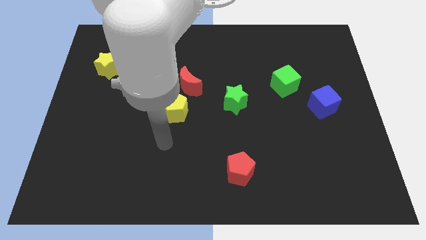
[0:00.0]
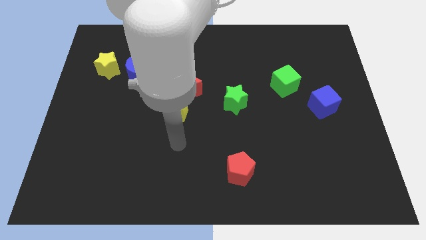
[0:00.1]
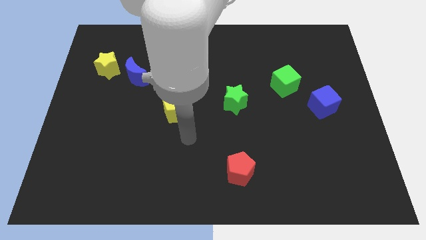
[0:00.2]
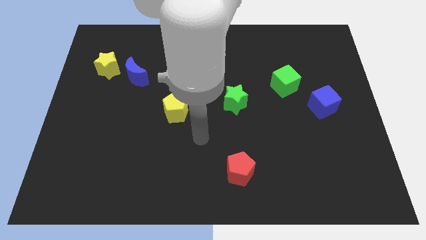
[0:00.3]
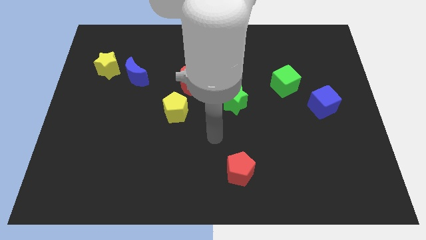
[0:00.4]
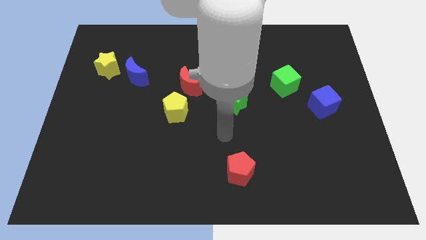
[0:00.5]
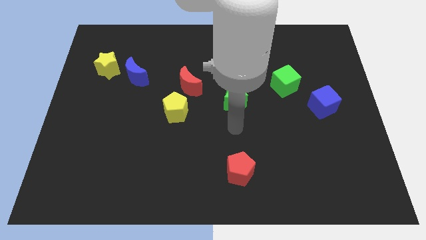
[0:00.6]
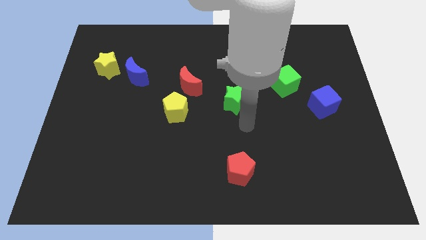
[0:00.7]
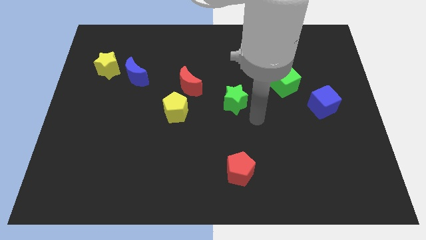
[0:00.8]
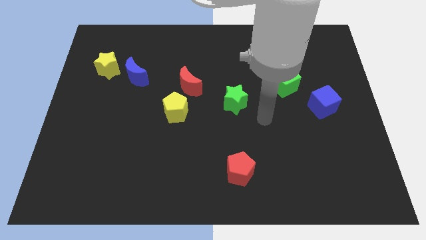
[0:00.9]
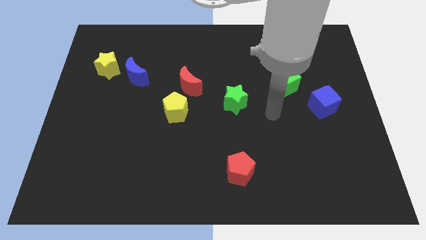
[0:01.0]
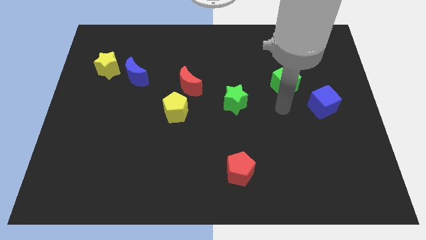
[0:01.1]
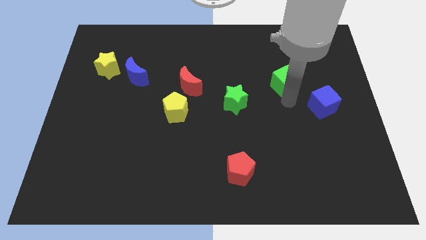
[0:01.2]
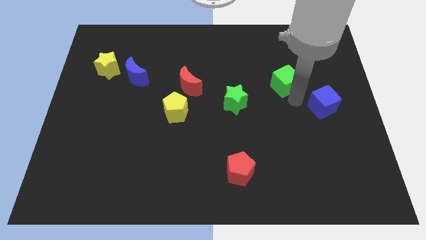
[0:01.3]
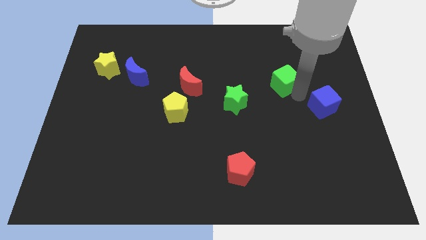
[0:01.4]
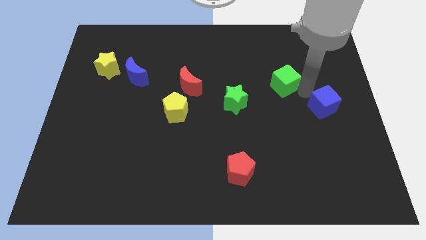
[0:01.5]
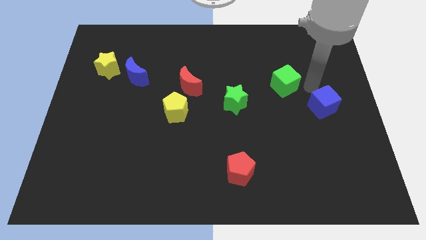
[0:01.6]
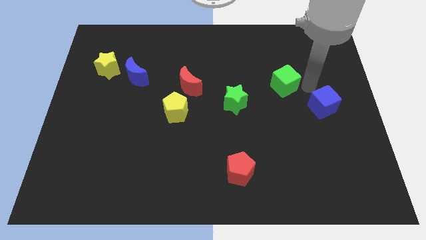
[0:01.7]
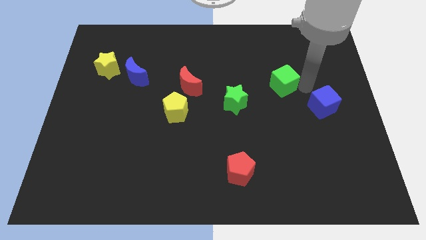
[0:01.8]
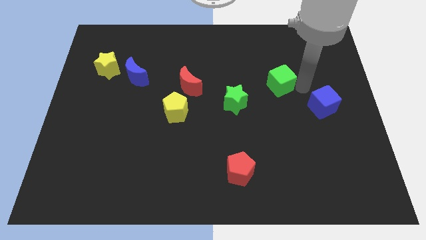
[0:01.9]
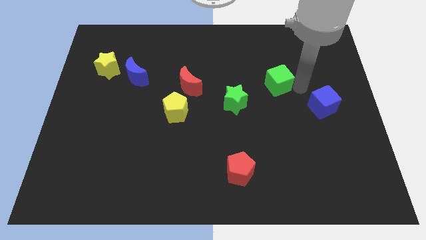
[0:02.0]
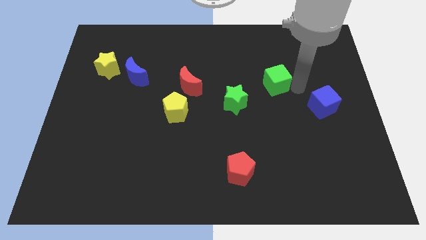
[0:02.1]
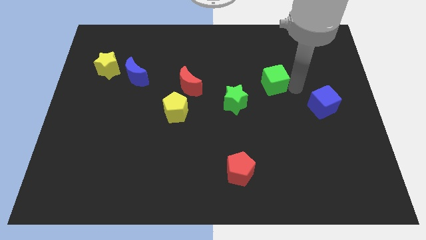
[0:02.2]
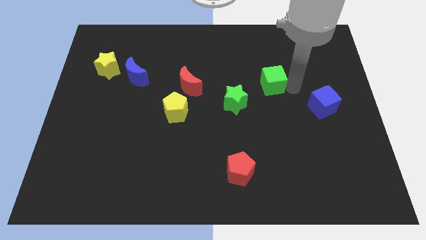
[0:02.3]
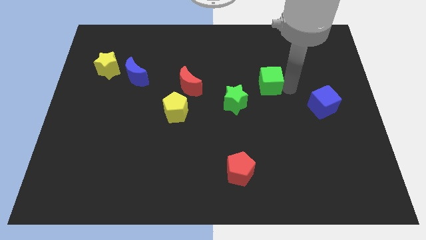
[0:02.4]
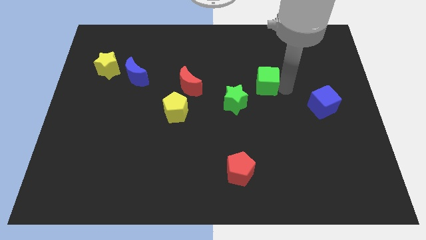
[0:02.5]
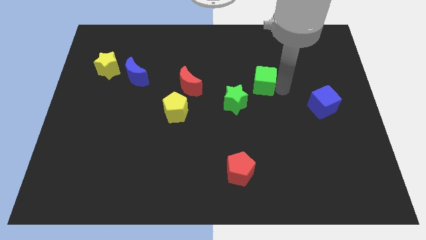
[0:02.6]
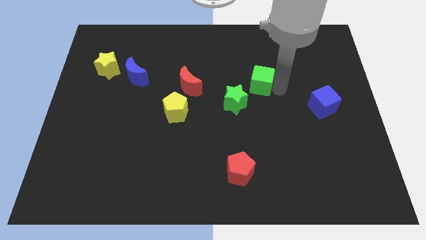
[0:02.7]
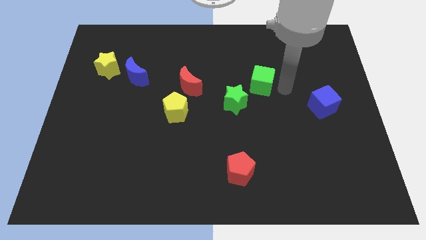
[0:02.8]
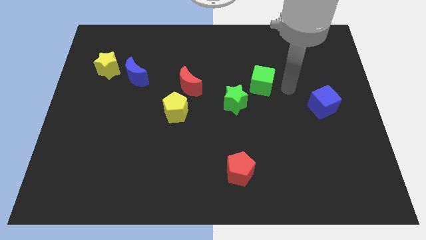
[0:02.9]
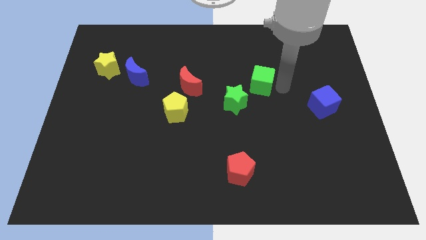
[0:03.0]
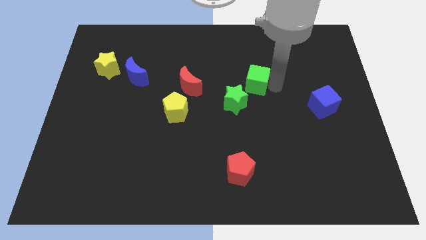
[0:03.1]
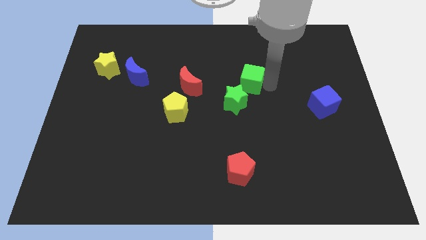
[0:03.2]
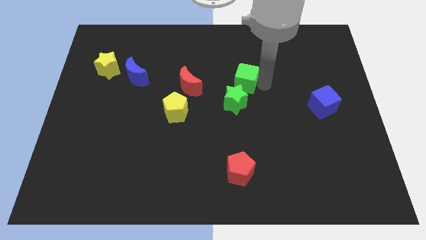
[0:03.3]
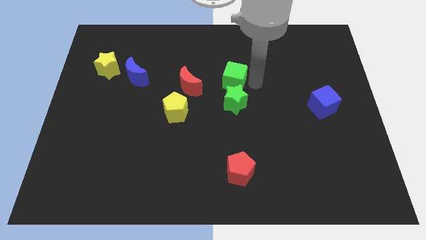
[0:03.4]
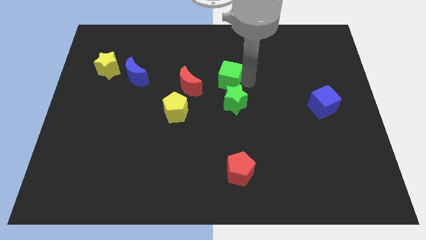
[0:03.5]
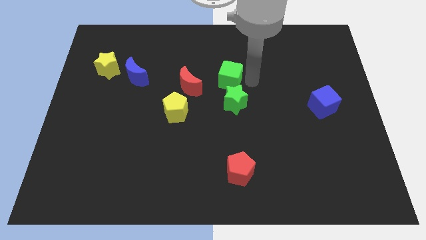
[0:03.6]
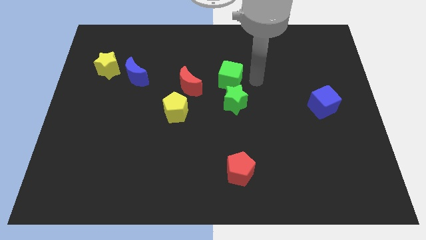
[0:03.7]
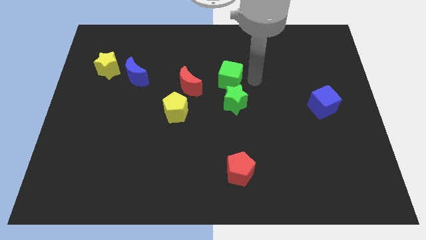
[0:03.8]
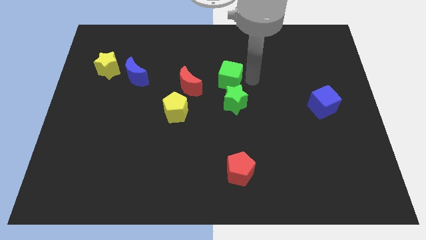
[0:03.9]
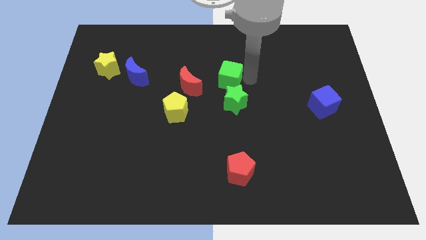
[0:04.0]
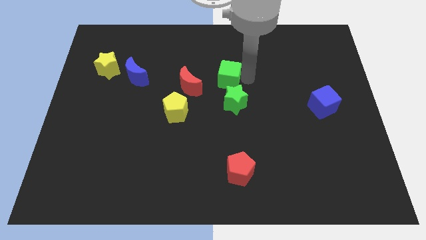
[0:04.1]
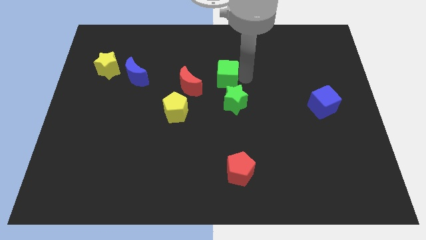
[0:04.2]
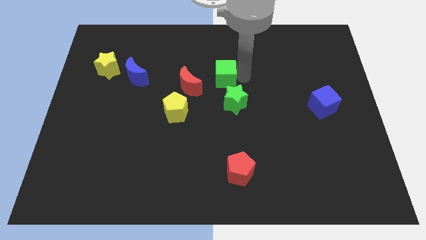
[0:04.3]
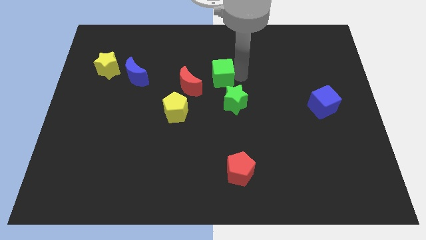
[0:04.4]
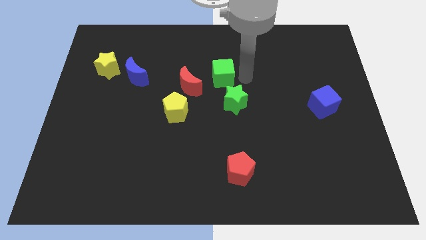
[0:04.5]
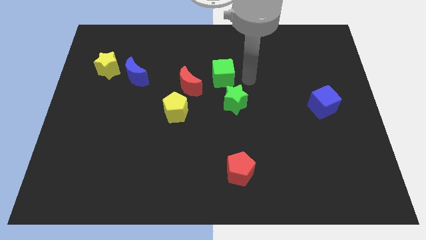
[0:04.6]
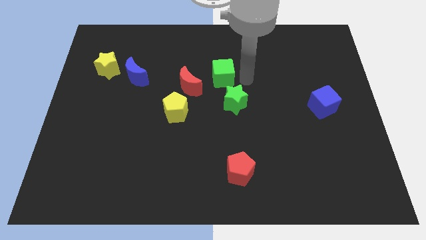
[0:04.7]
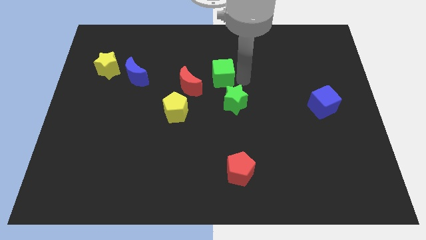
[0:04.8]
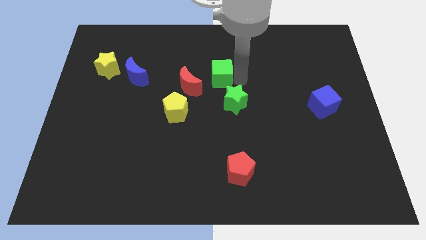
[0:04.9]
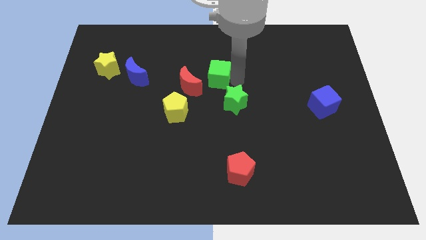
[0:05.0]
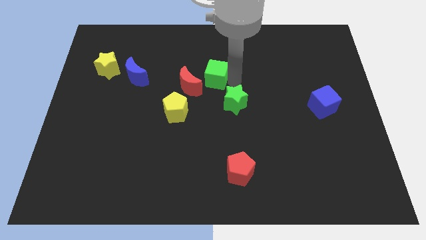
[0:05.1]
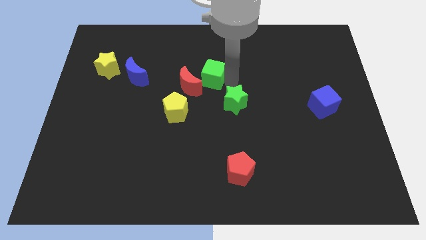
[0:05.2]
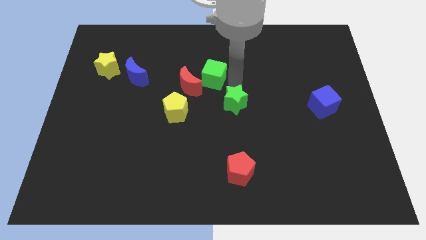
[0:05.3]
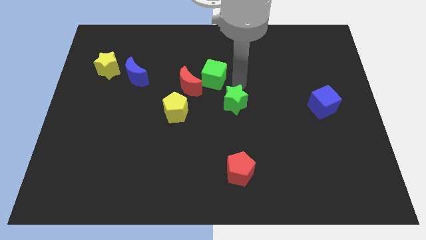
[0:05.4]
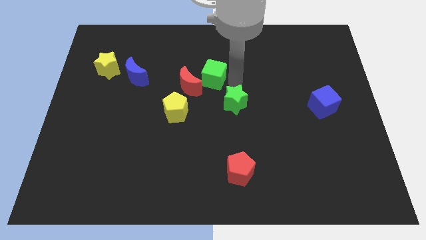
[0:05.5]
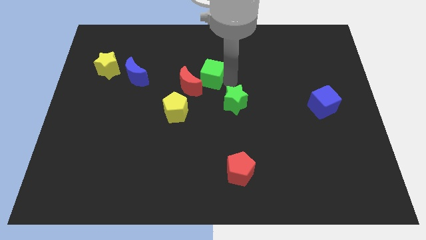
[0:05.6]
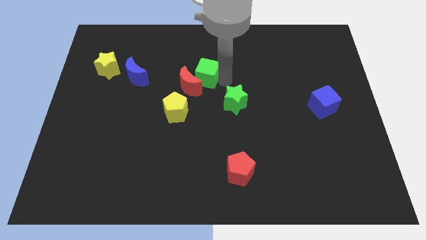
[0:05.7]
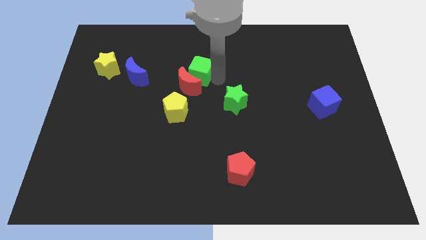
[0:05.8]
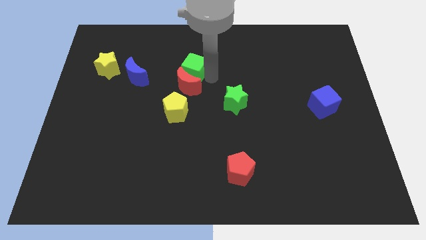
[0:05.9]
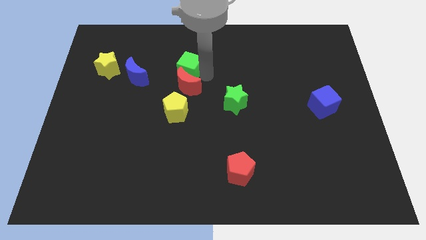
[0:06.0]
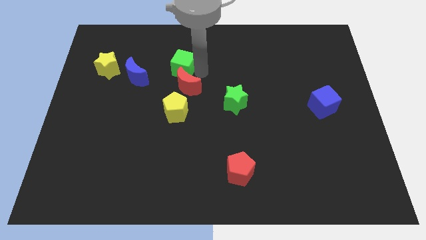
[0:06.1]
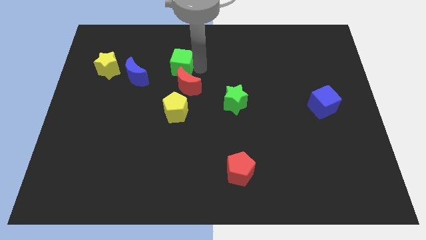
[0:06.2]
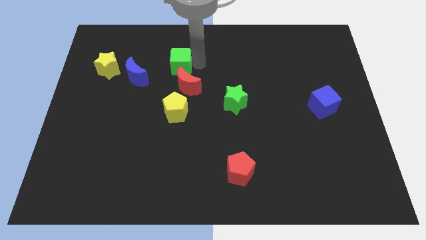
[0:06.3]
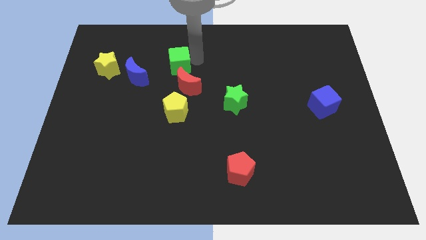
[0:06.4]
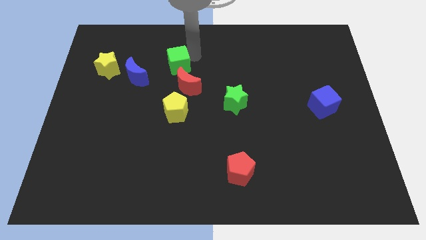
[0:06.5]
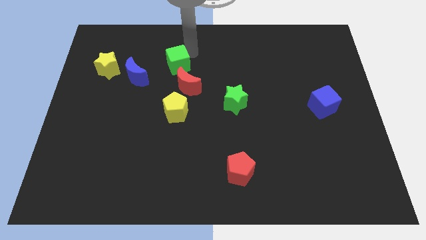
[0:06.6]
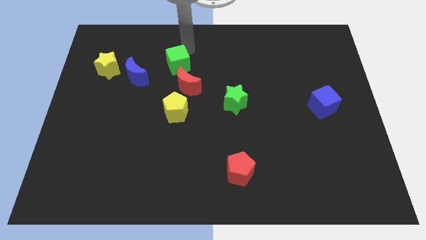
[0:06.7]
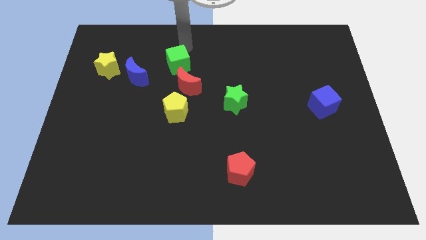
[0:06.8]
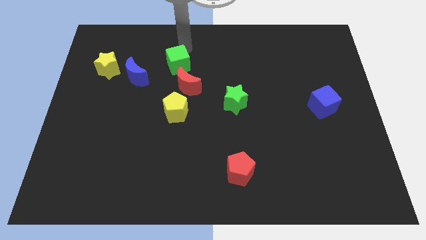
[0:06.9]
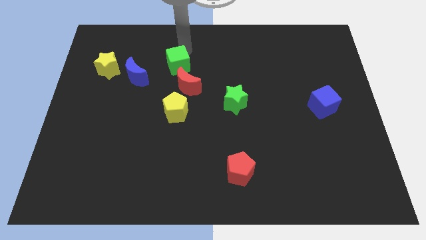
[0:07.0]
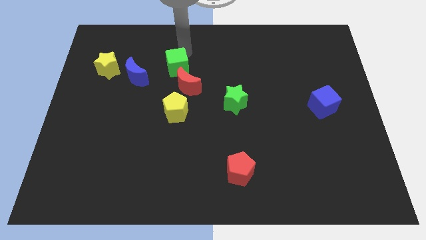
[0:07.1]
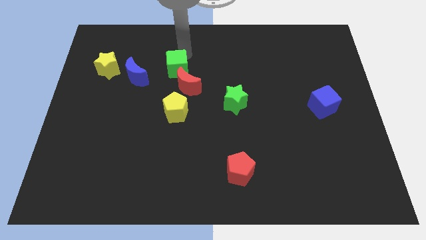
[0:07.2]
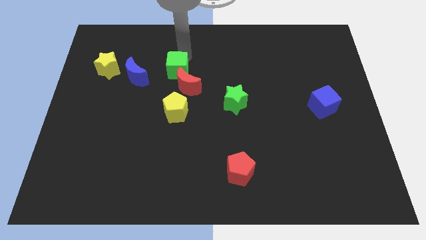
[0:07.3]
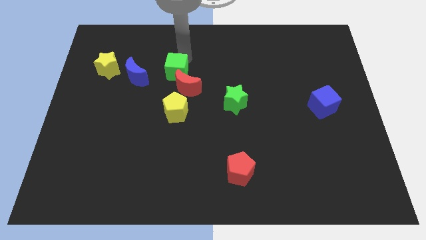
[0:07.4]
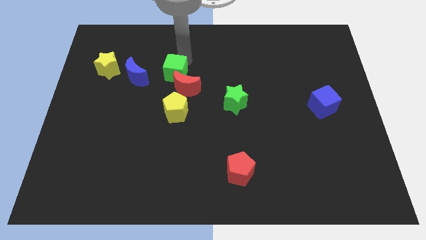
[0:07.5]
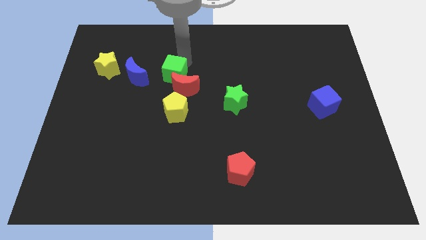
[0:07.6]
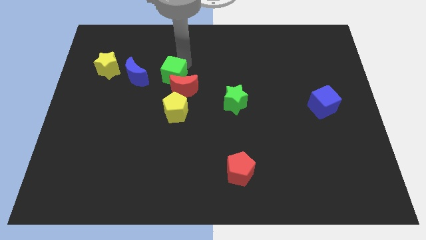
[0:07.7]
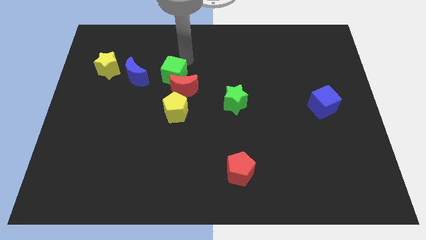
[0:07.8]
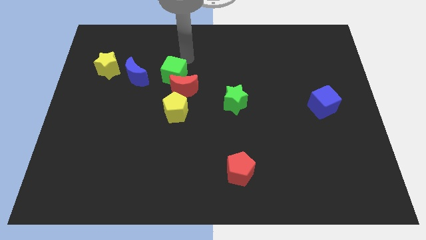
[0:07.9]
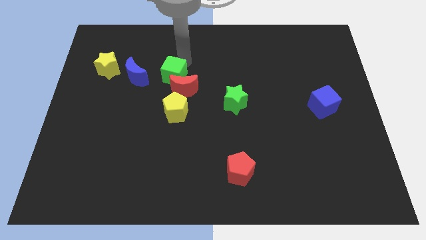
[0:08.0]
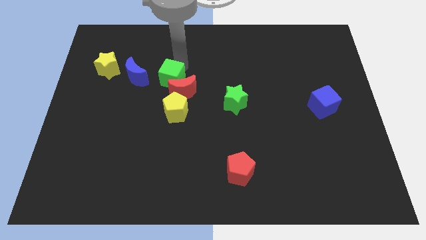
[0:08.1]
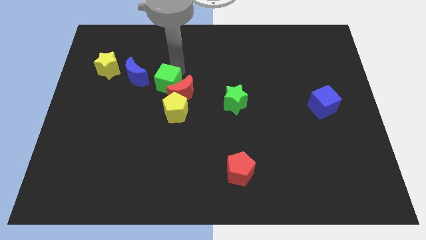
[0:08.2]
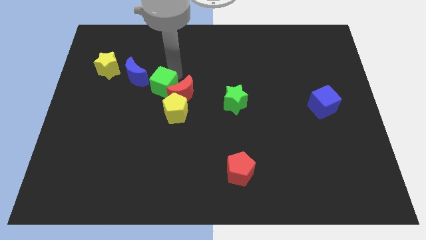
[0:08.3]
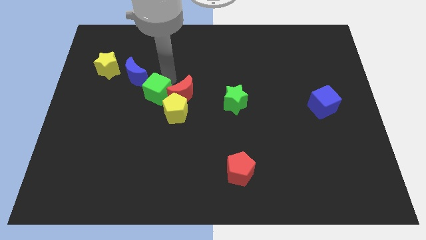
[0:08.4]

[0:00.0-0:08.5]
push the green cube diagonally down and to the left of the red moon
